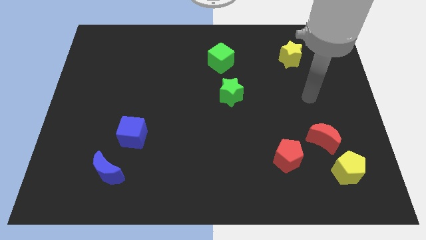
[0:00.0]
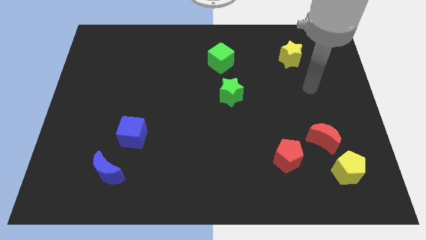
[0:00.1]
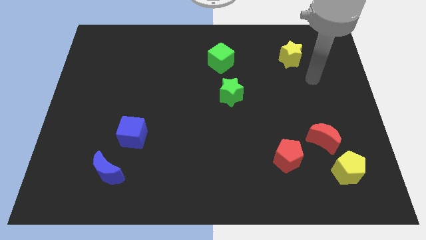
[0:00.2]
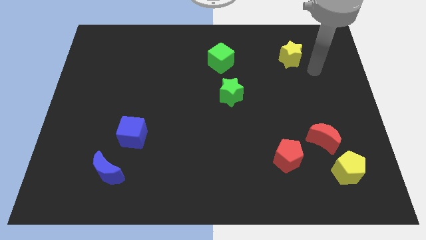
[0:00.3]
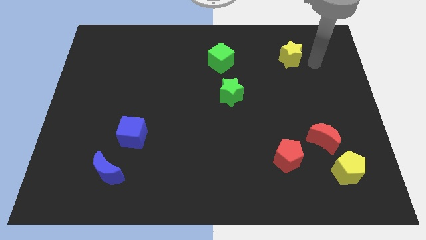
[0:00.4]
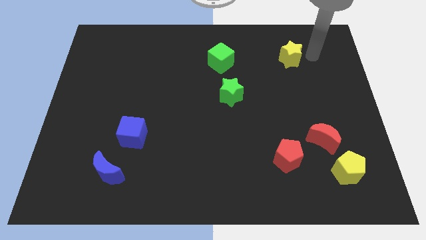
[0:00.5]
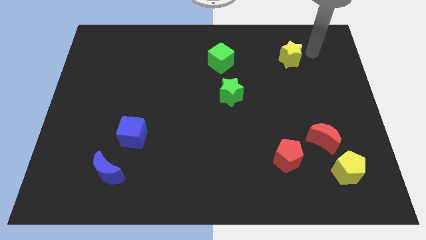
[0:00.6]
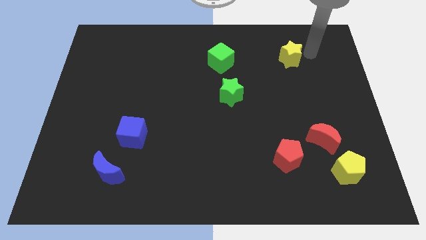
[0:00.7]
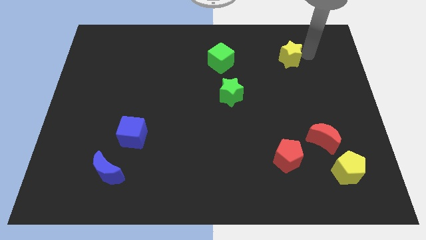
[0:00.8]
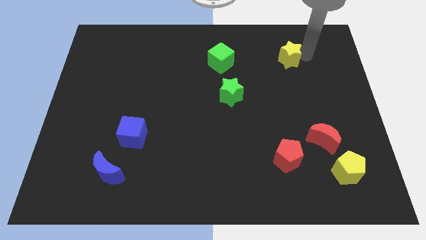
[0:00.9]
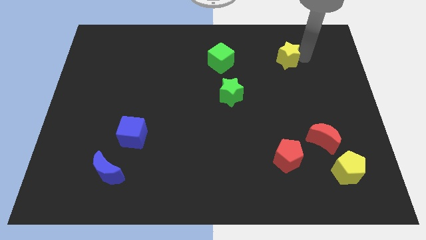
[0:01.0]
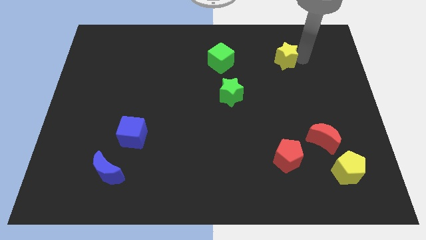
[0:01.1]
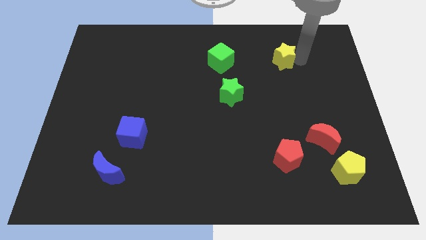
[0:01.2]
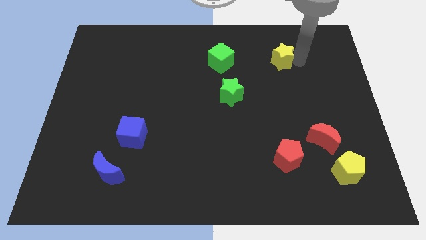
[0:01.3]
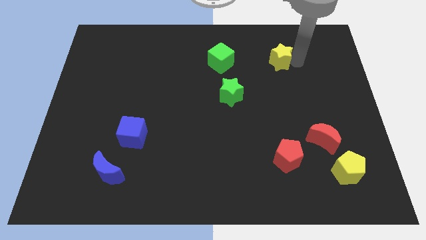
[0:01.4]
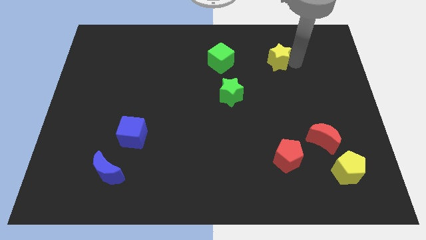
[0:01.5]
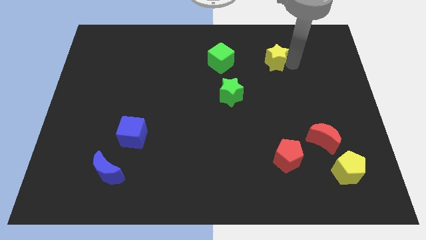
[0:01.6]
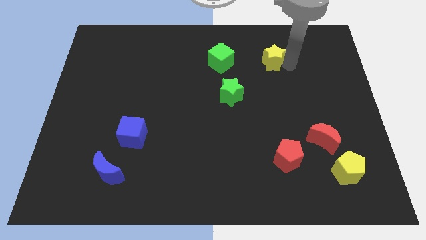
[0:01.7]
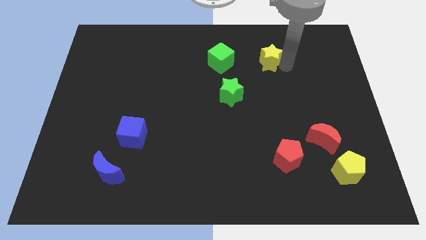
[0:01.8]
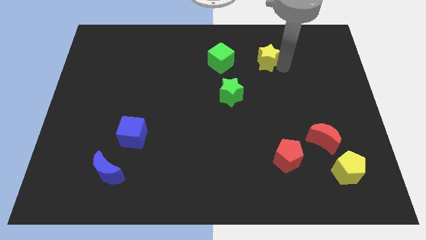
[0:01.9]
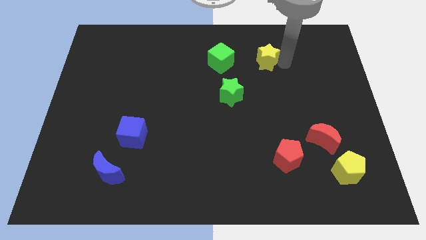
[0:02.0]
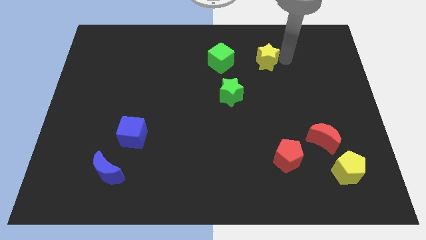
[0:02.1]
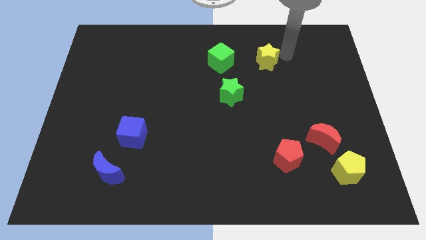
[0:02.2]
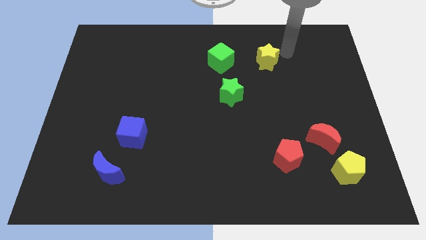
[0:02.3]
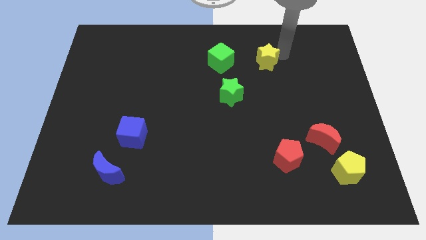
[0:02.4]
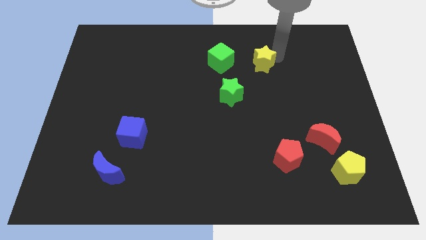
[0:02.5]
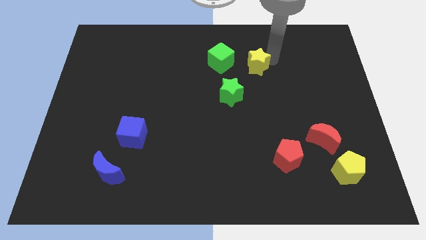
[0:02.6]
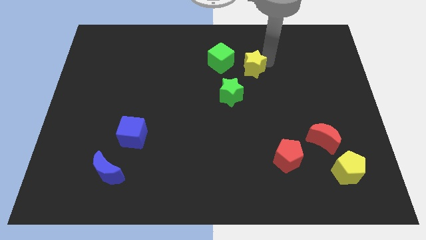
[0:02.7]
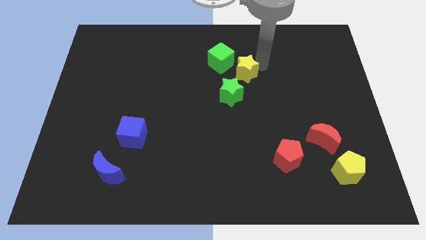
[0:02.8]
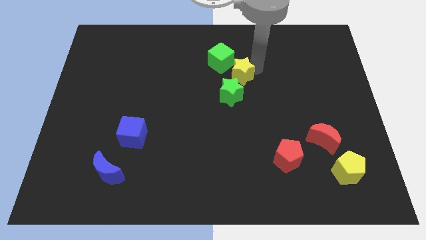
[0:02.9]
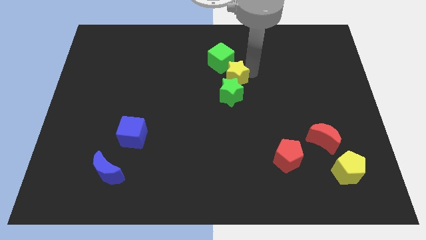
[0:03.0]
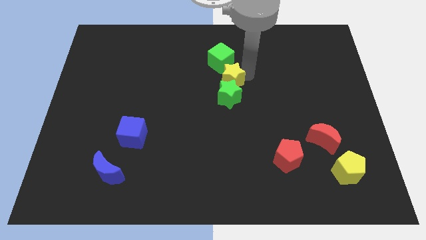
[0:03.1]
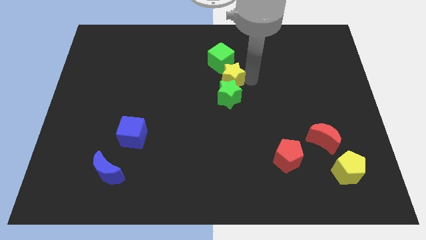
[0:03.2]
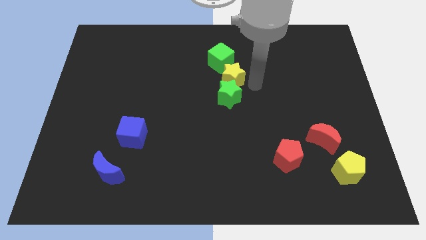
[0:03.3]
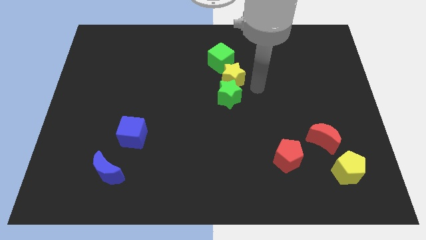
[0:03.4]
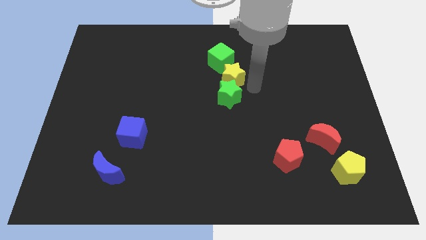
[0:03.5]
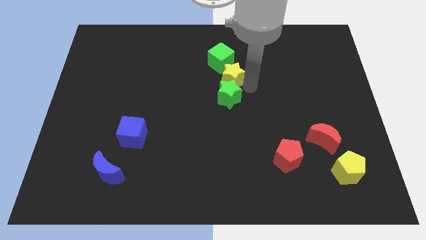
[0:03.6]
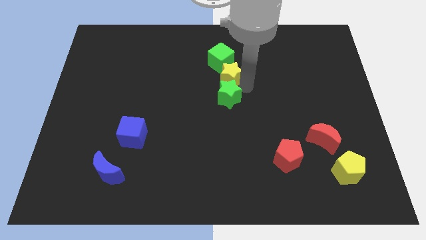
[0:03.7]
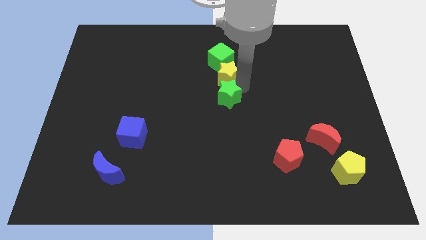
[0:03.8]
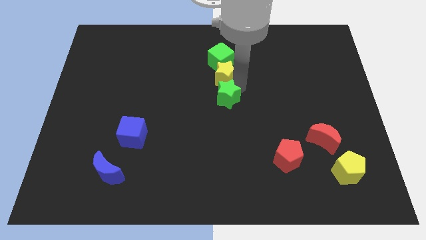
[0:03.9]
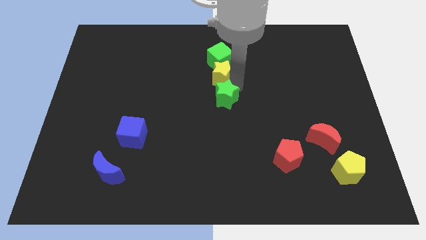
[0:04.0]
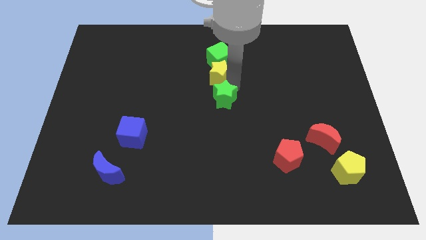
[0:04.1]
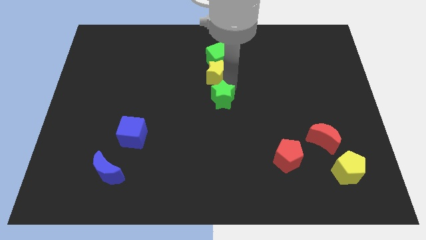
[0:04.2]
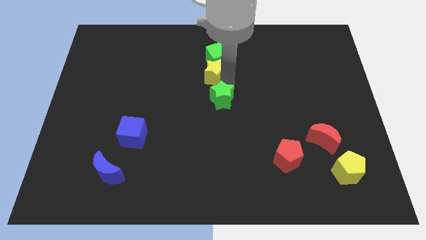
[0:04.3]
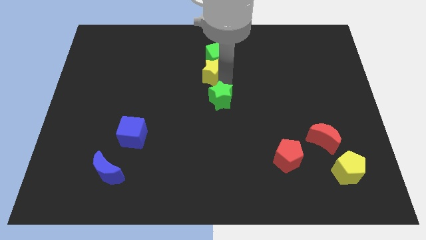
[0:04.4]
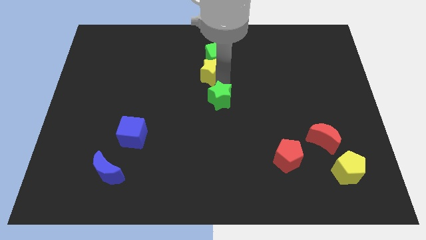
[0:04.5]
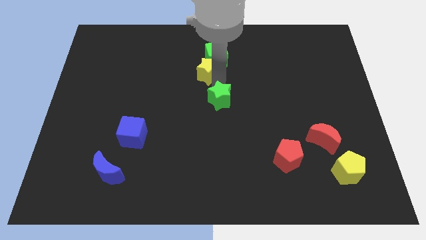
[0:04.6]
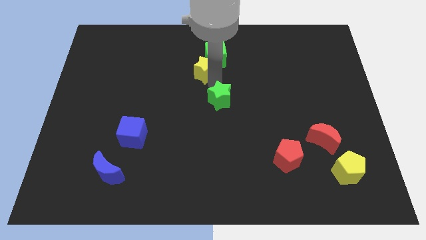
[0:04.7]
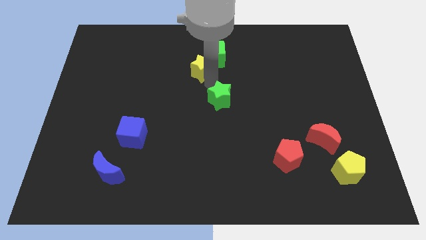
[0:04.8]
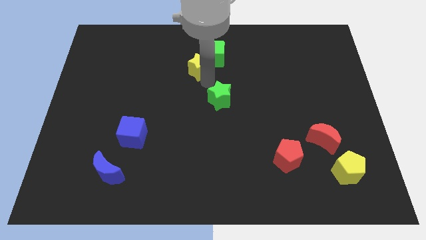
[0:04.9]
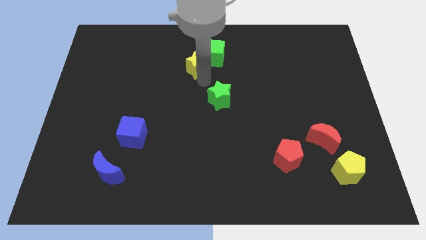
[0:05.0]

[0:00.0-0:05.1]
move the yellow star just left of the green cube

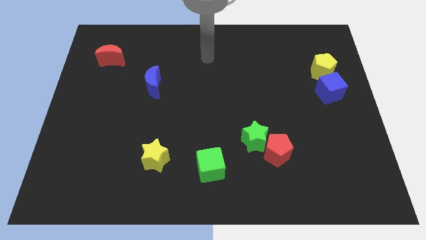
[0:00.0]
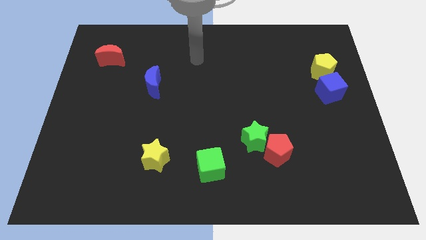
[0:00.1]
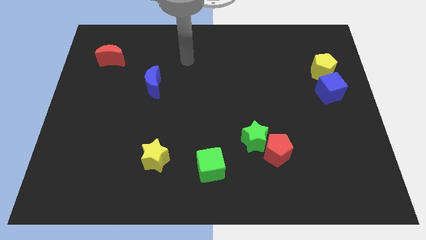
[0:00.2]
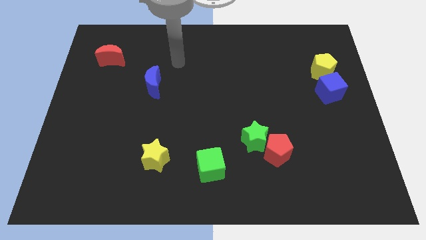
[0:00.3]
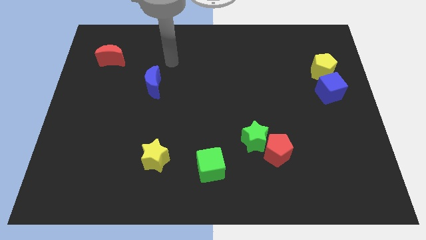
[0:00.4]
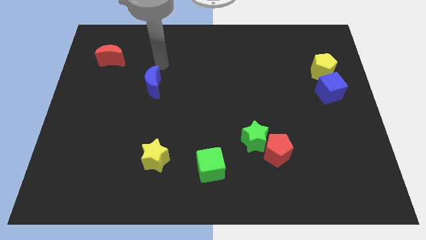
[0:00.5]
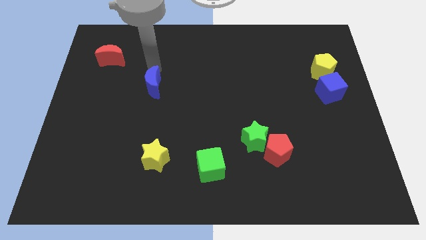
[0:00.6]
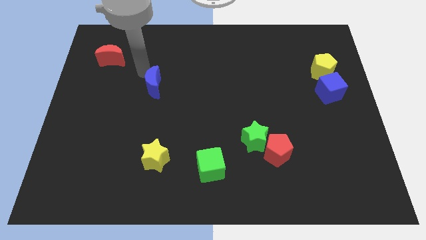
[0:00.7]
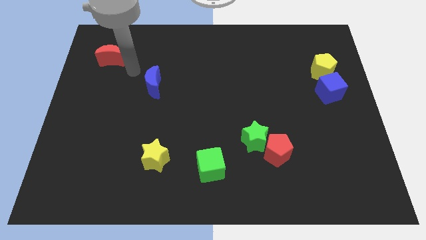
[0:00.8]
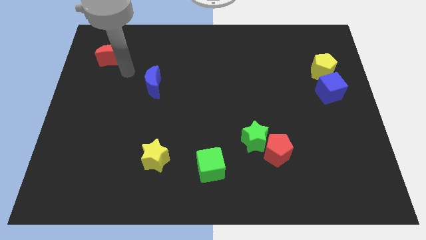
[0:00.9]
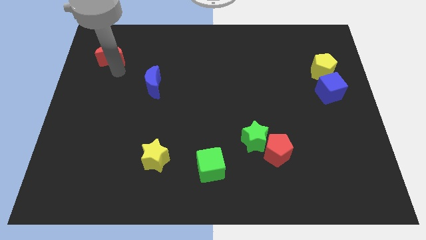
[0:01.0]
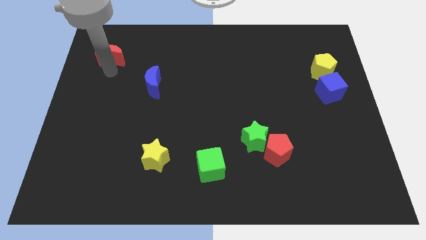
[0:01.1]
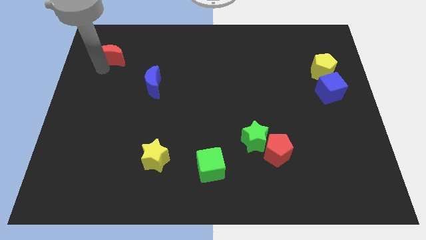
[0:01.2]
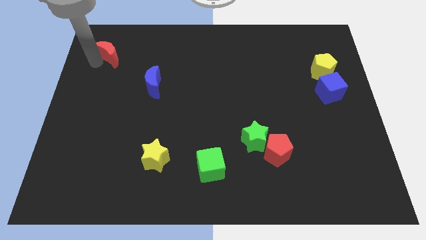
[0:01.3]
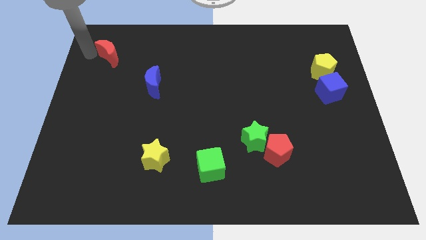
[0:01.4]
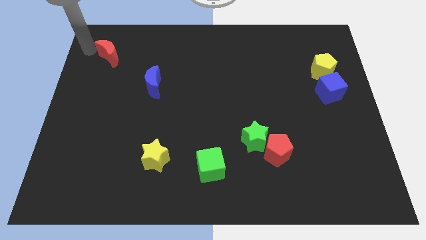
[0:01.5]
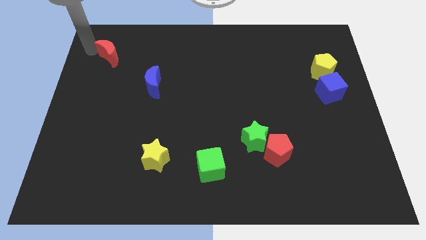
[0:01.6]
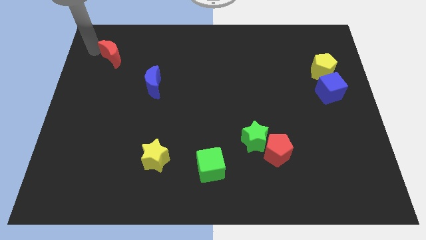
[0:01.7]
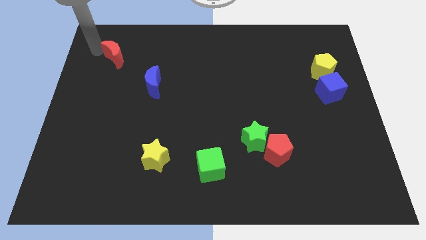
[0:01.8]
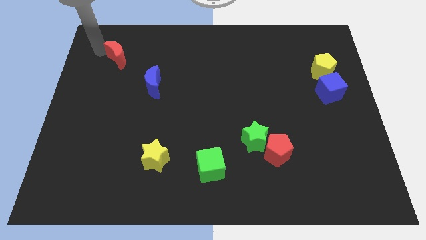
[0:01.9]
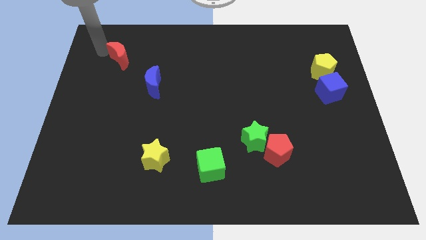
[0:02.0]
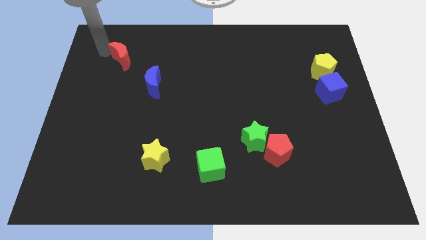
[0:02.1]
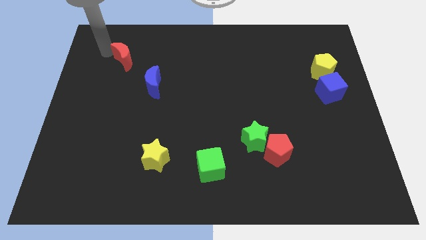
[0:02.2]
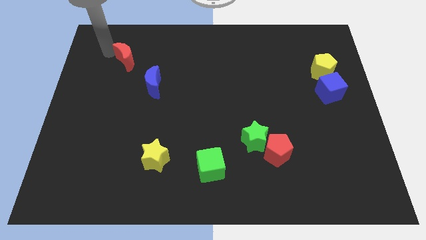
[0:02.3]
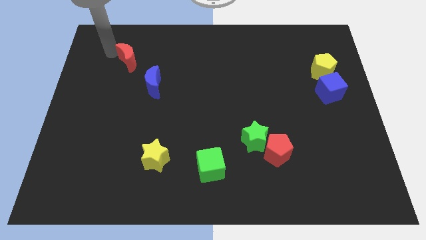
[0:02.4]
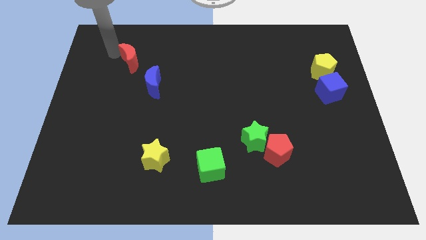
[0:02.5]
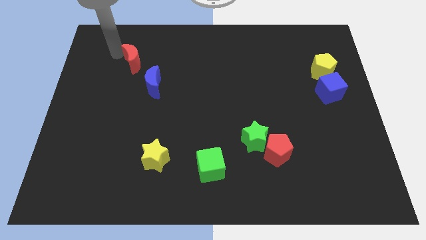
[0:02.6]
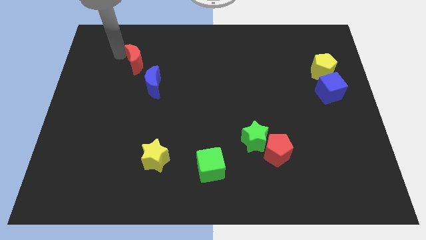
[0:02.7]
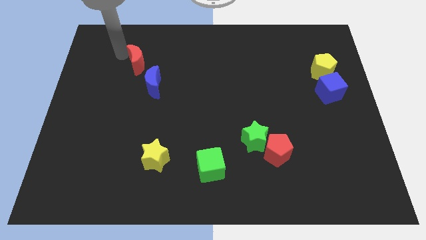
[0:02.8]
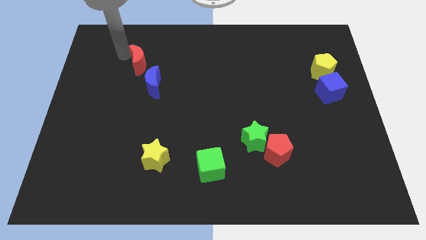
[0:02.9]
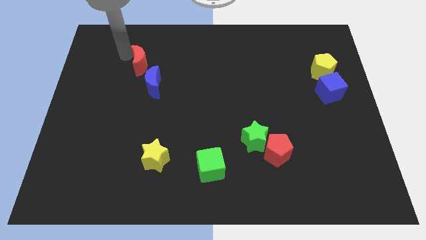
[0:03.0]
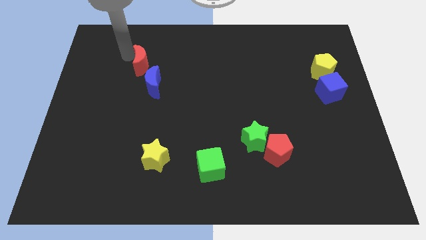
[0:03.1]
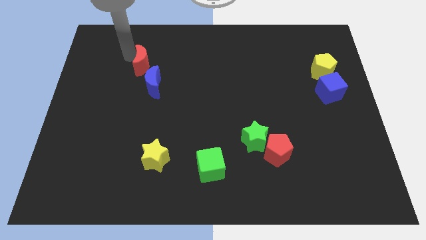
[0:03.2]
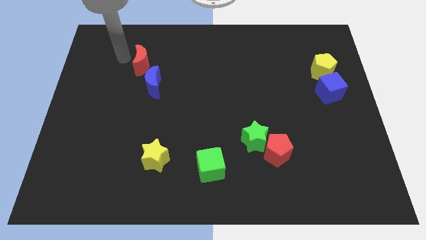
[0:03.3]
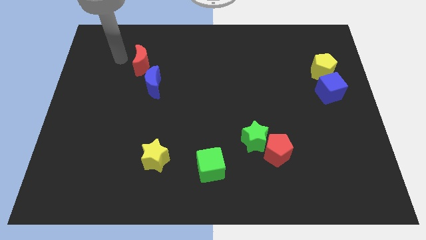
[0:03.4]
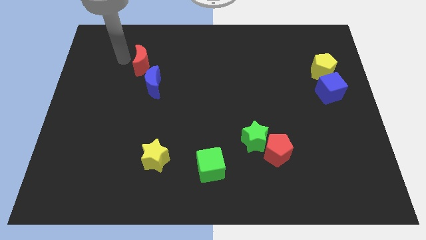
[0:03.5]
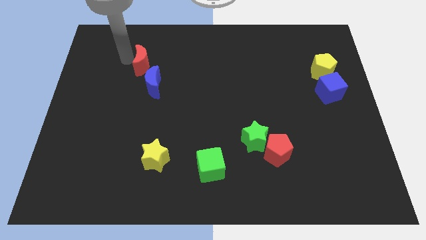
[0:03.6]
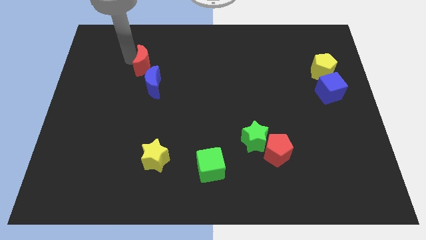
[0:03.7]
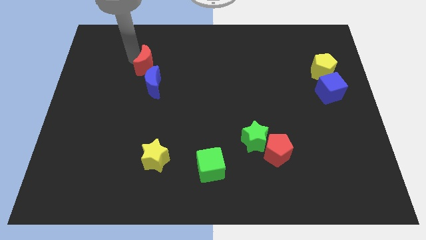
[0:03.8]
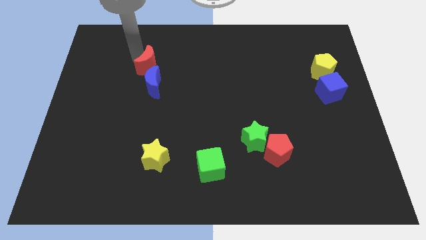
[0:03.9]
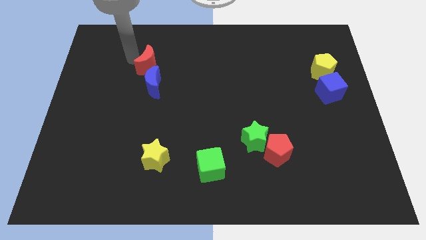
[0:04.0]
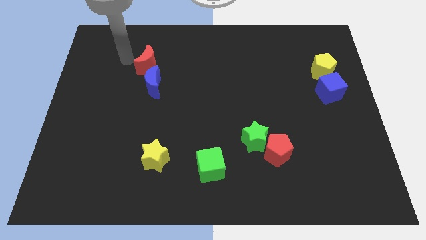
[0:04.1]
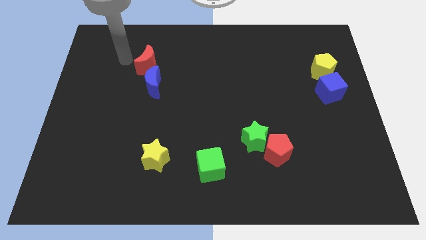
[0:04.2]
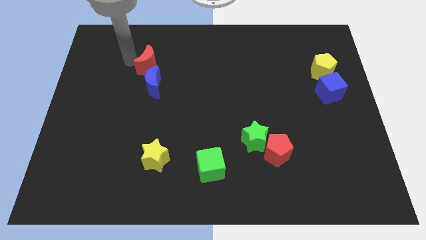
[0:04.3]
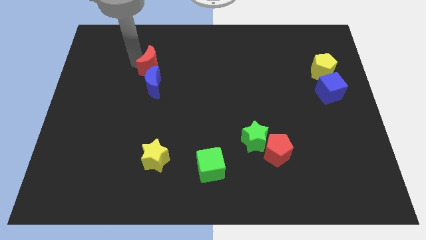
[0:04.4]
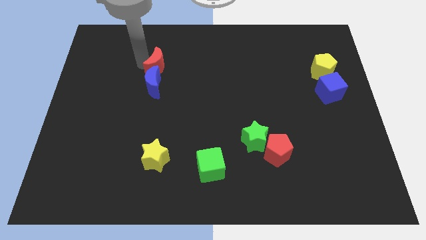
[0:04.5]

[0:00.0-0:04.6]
put the red moon diagonally up and to the right of the blue moon
